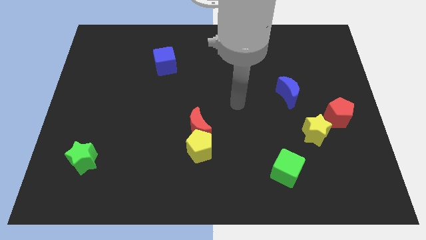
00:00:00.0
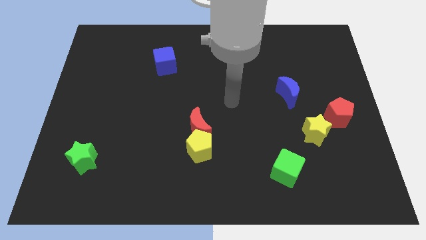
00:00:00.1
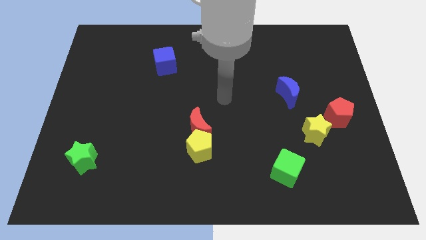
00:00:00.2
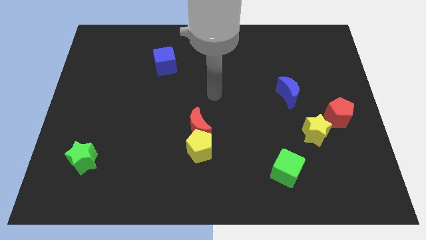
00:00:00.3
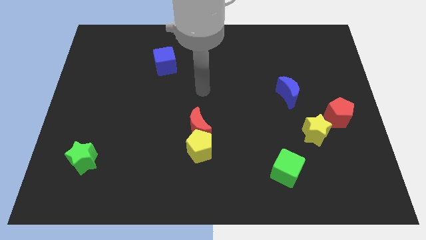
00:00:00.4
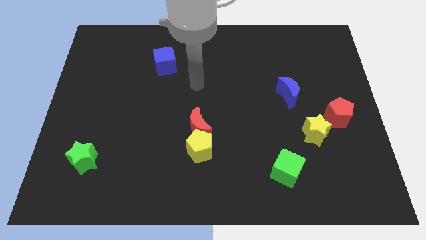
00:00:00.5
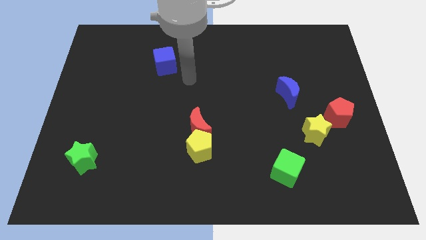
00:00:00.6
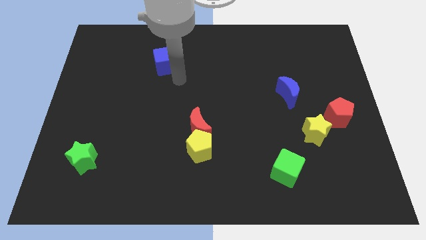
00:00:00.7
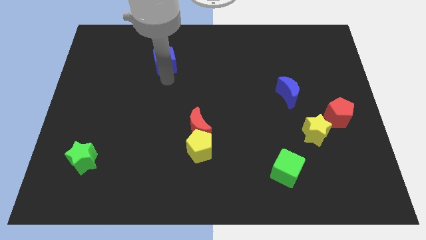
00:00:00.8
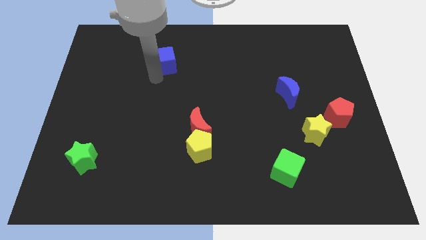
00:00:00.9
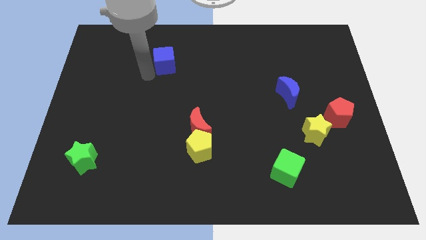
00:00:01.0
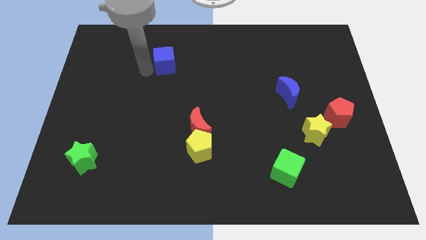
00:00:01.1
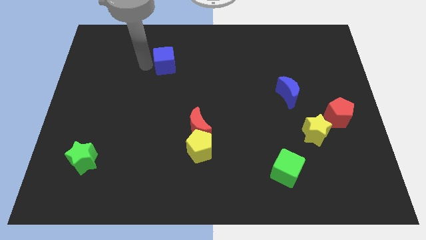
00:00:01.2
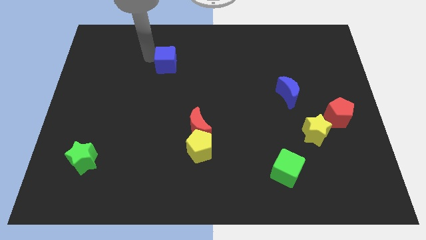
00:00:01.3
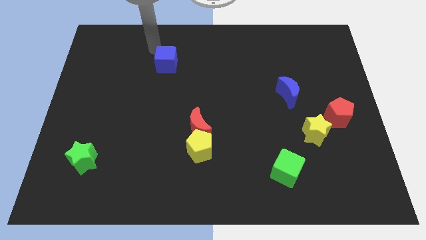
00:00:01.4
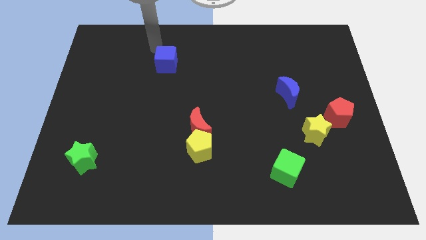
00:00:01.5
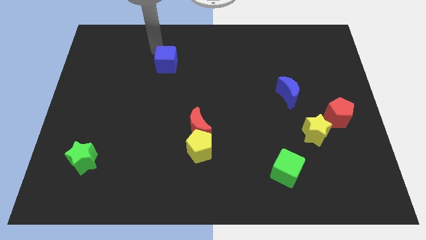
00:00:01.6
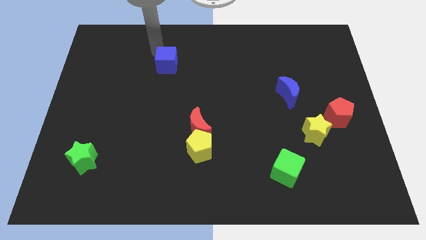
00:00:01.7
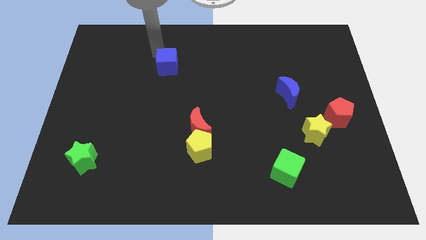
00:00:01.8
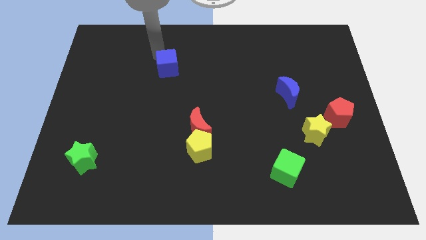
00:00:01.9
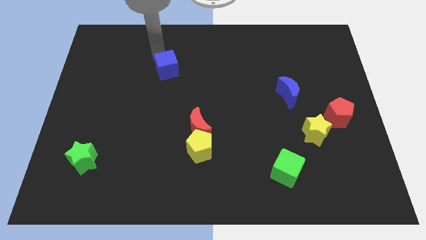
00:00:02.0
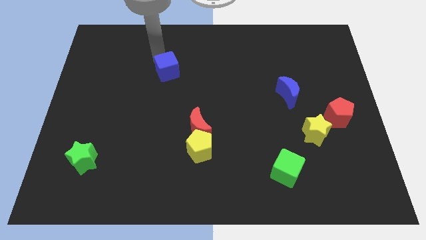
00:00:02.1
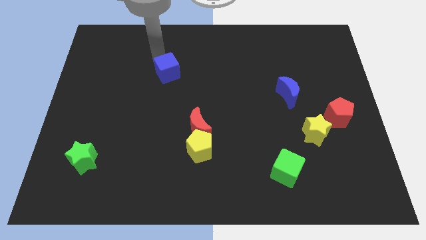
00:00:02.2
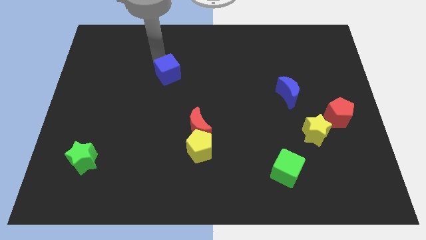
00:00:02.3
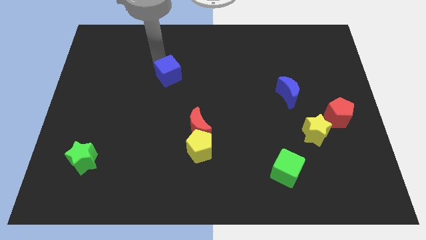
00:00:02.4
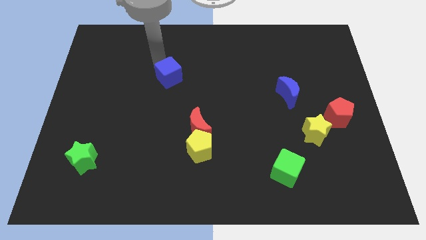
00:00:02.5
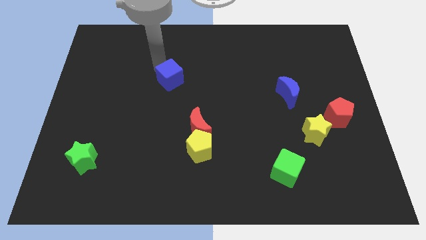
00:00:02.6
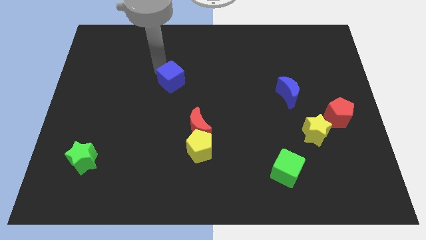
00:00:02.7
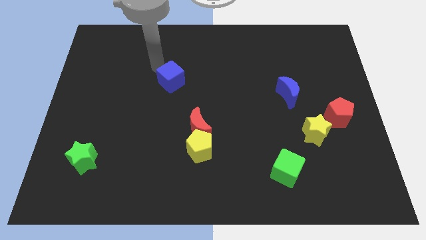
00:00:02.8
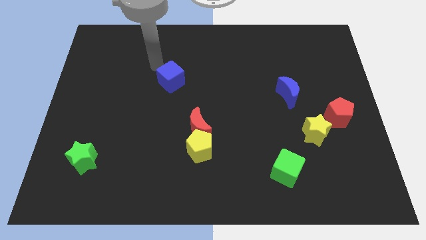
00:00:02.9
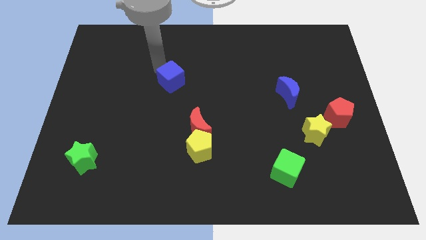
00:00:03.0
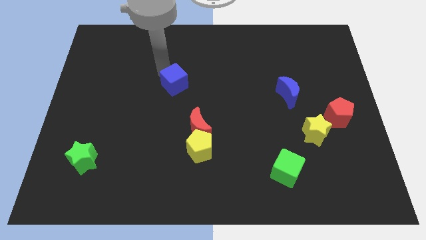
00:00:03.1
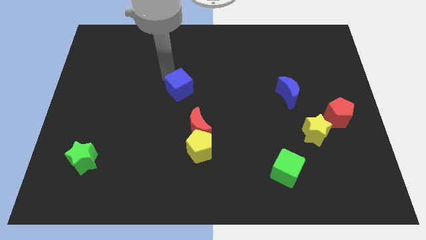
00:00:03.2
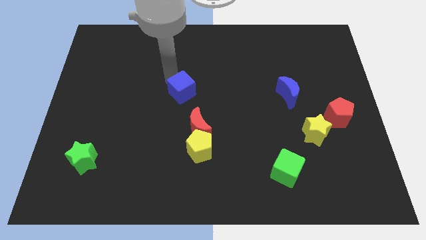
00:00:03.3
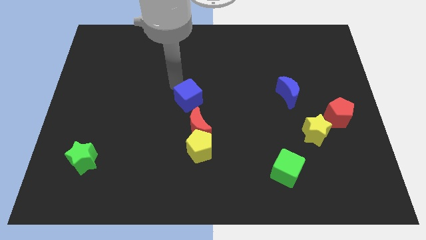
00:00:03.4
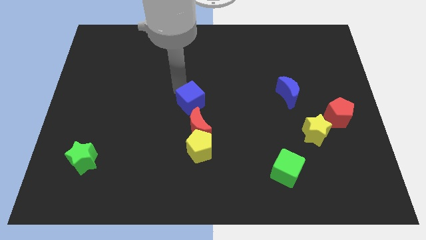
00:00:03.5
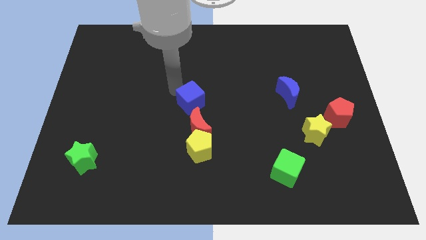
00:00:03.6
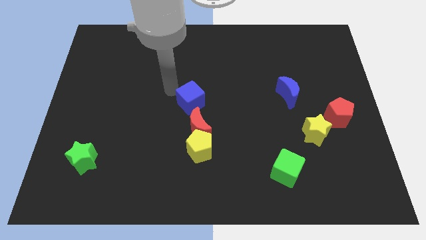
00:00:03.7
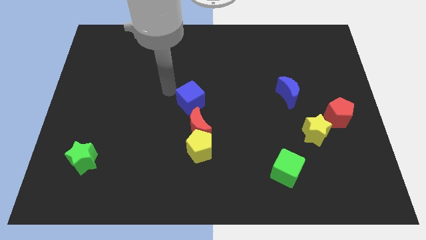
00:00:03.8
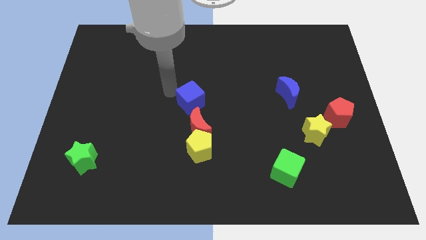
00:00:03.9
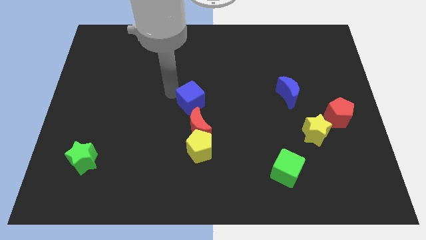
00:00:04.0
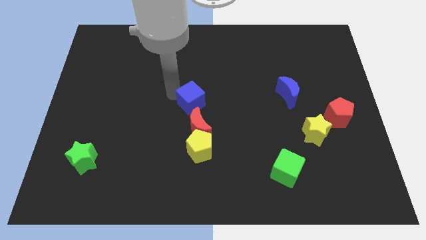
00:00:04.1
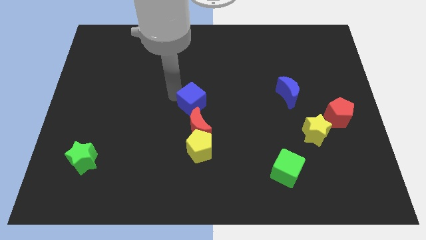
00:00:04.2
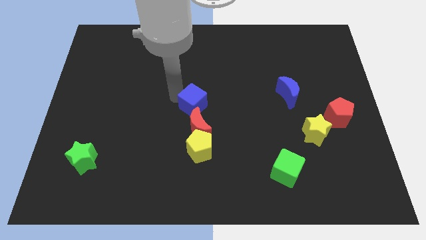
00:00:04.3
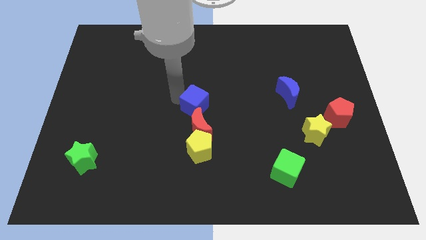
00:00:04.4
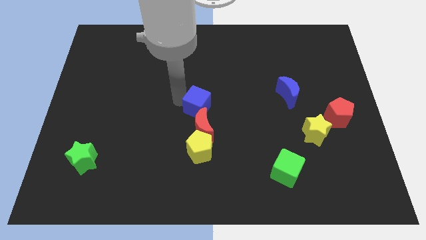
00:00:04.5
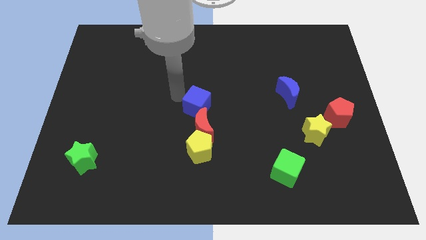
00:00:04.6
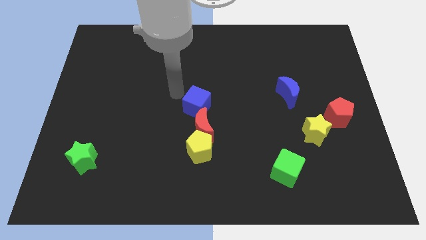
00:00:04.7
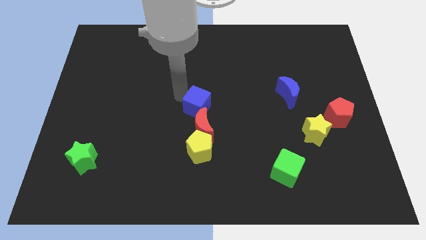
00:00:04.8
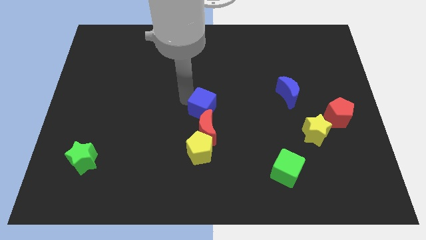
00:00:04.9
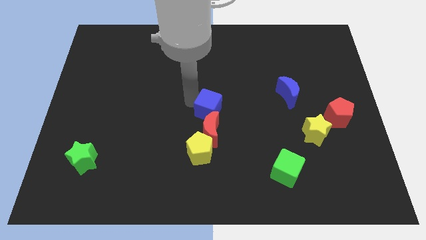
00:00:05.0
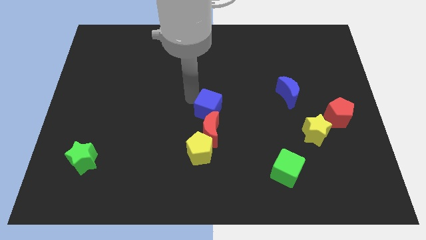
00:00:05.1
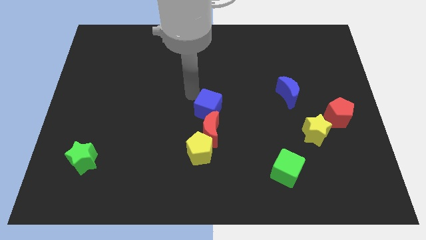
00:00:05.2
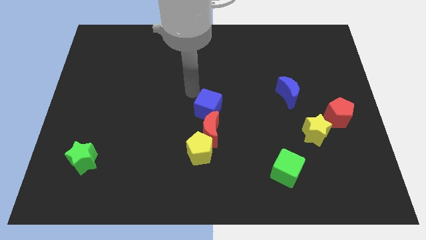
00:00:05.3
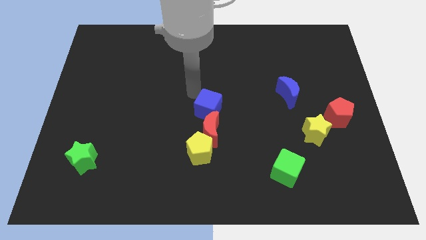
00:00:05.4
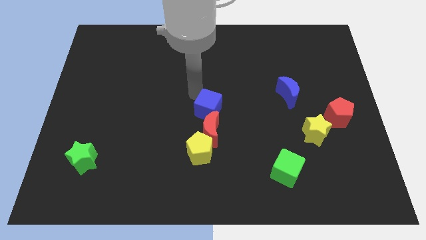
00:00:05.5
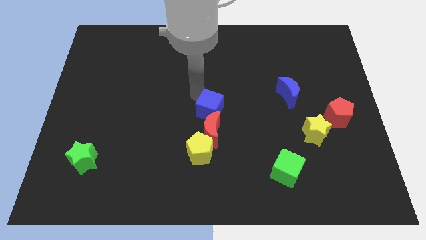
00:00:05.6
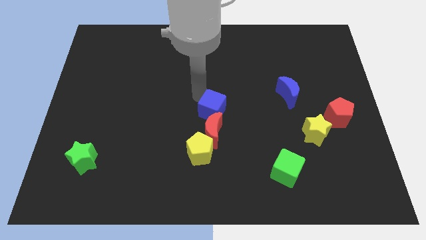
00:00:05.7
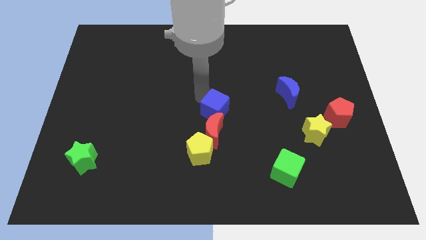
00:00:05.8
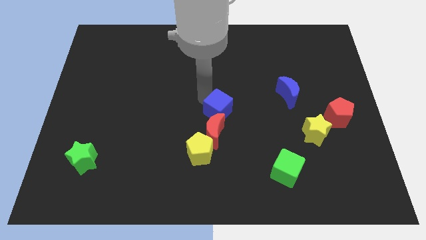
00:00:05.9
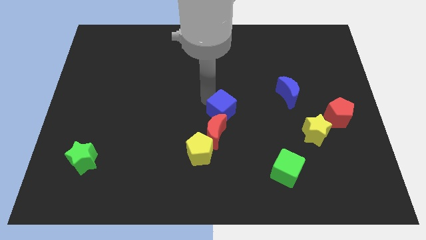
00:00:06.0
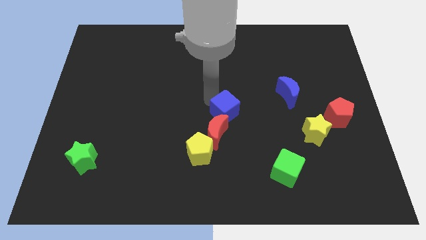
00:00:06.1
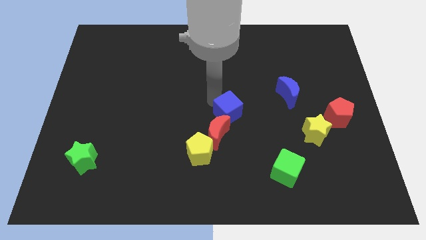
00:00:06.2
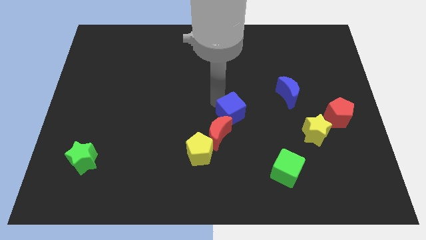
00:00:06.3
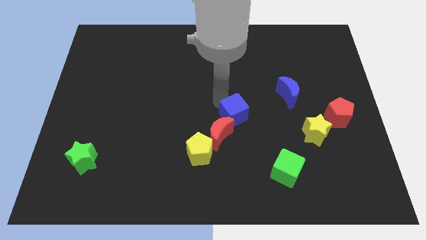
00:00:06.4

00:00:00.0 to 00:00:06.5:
slide the blue cube to the top right of the yellow pentagon

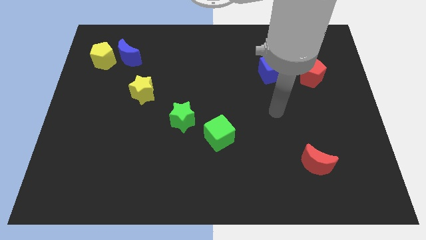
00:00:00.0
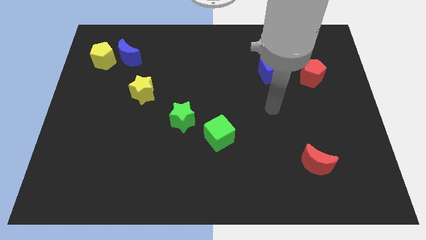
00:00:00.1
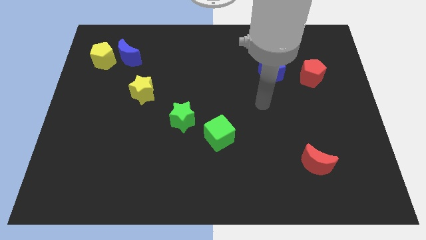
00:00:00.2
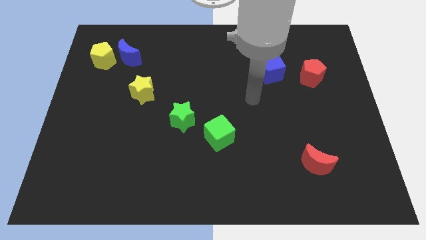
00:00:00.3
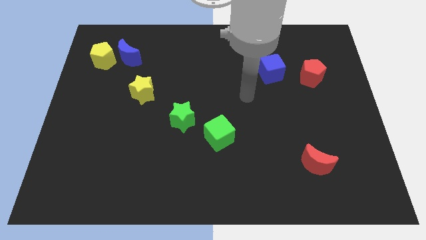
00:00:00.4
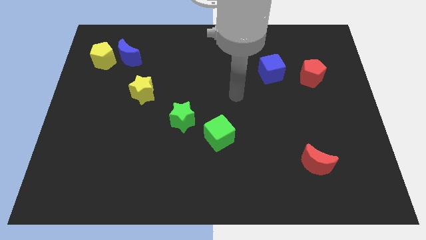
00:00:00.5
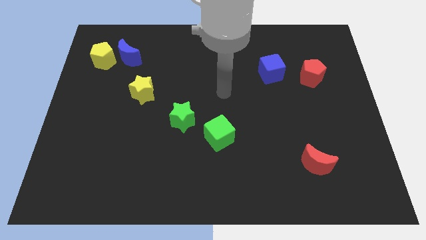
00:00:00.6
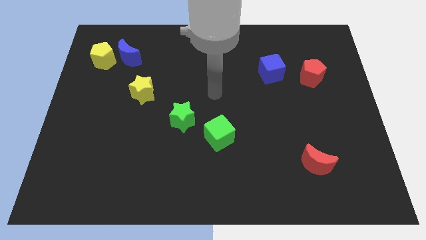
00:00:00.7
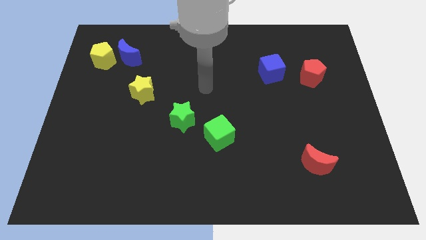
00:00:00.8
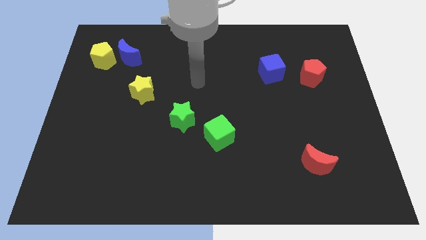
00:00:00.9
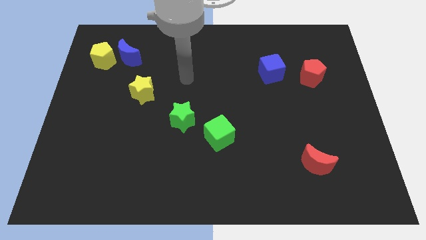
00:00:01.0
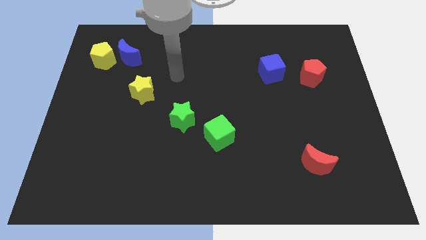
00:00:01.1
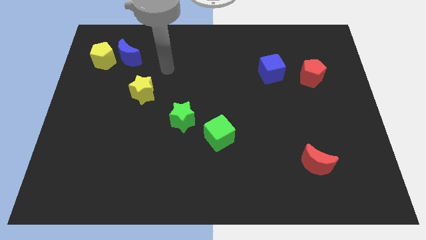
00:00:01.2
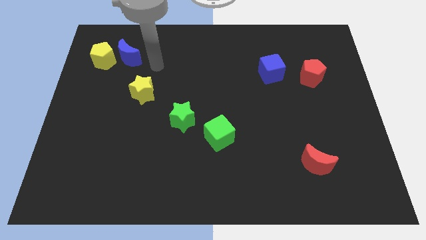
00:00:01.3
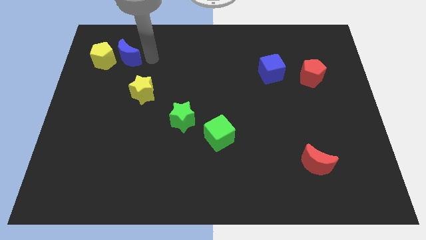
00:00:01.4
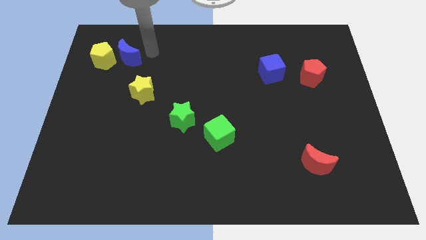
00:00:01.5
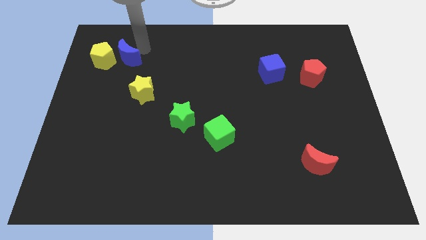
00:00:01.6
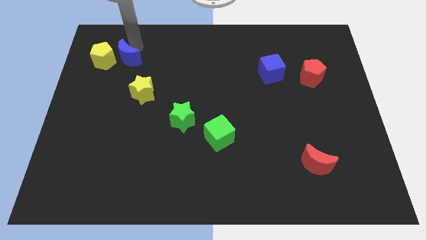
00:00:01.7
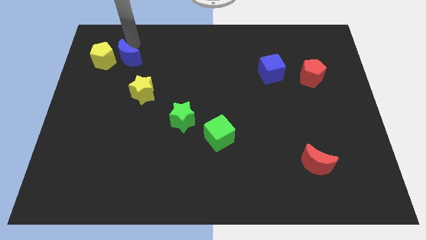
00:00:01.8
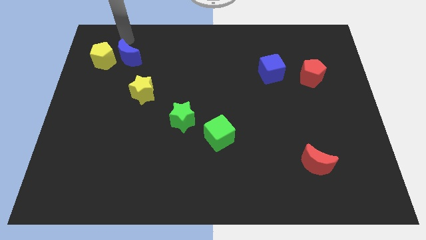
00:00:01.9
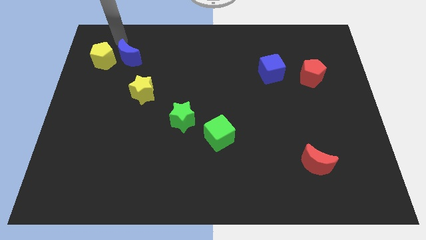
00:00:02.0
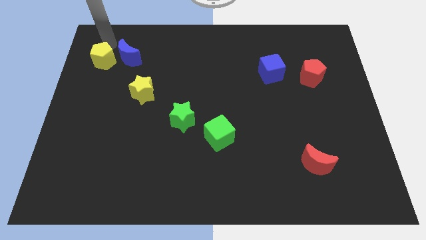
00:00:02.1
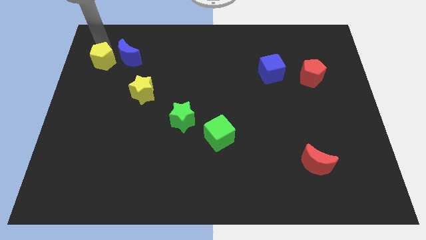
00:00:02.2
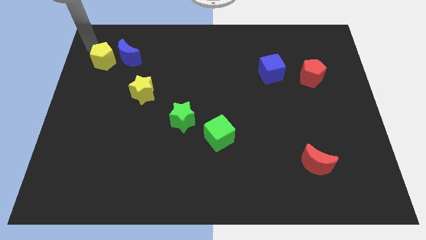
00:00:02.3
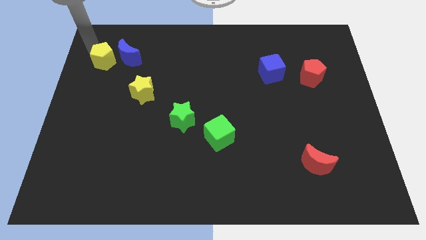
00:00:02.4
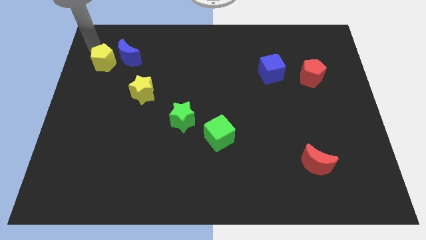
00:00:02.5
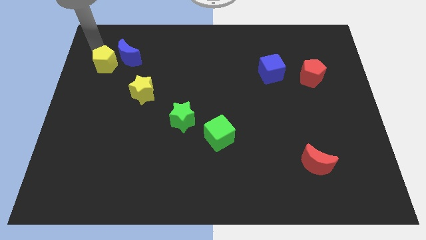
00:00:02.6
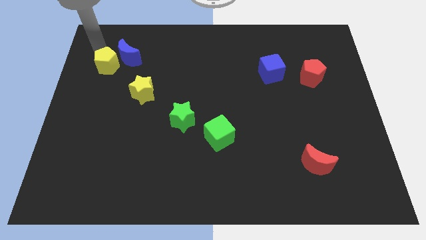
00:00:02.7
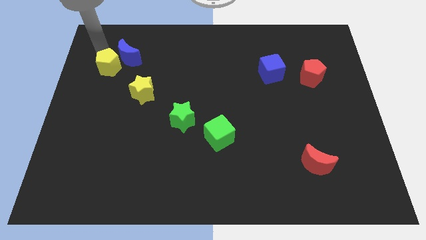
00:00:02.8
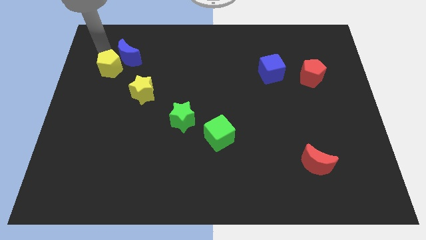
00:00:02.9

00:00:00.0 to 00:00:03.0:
slide the yellow pentagon to the top left of the yellow star
